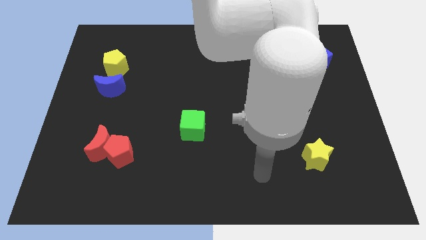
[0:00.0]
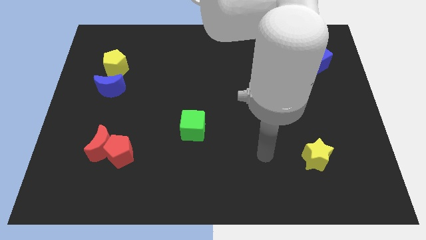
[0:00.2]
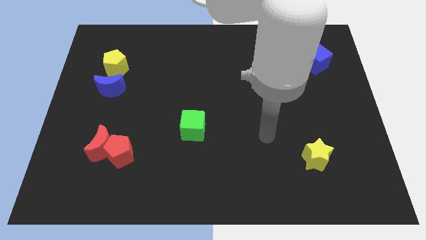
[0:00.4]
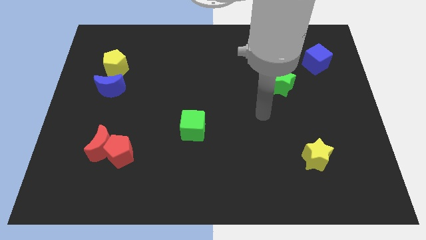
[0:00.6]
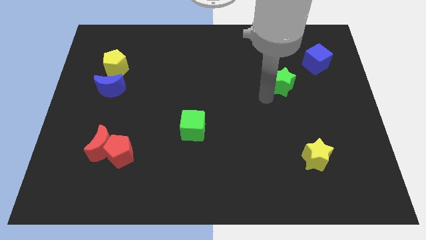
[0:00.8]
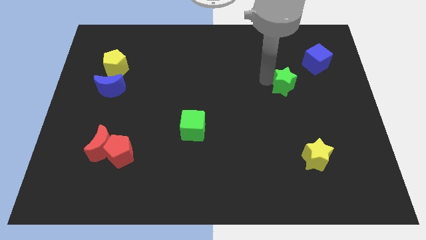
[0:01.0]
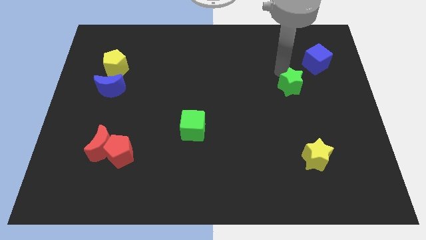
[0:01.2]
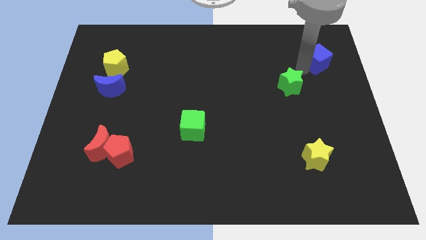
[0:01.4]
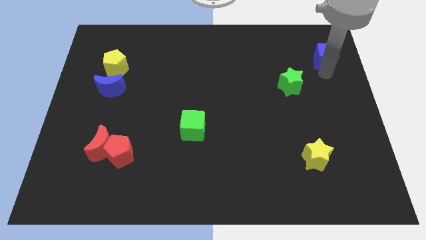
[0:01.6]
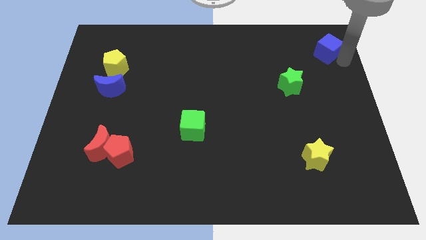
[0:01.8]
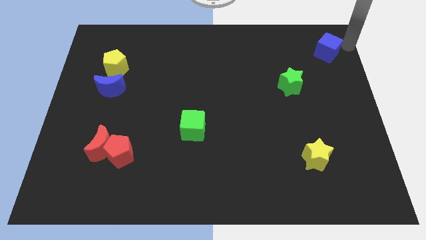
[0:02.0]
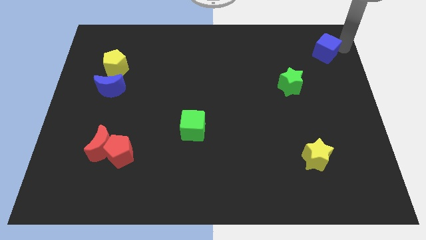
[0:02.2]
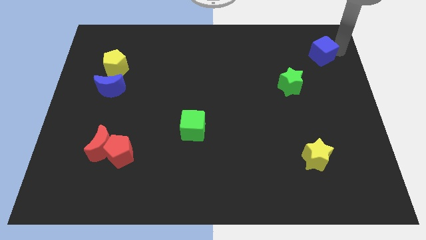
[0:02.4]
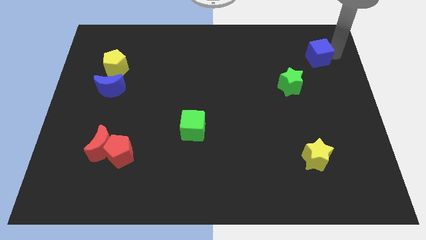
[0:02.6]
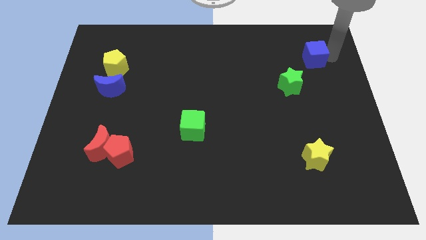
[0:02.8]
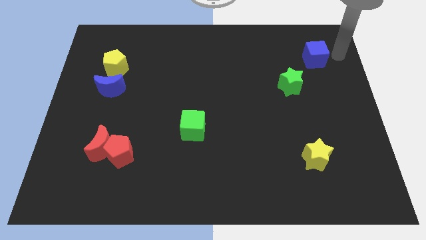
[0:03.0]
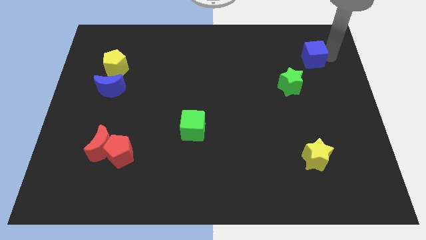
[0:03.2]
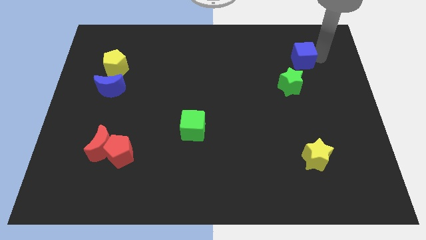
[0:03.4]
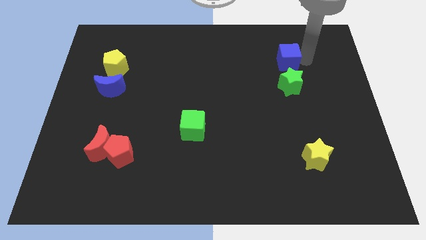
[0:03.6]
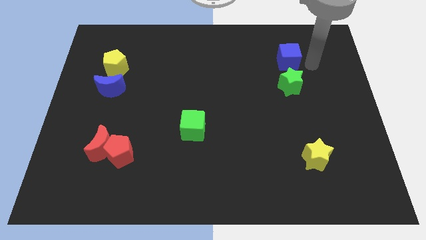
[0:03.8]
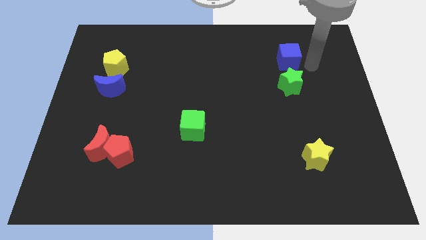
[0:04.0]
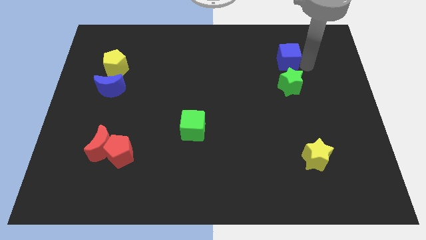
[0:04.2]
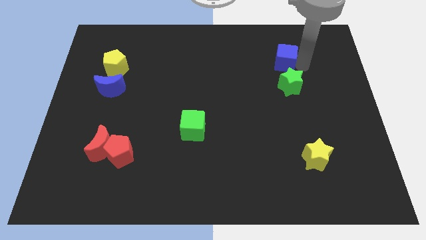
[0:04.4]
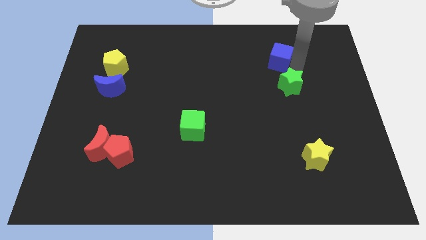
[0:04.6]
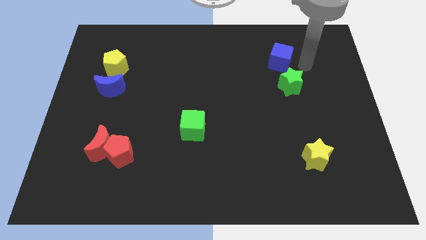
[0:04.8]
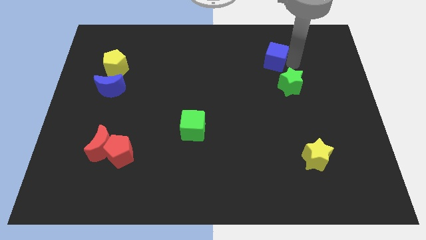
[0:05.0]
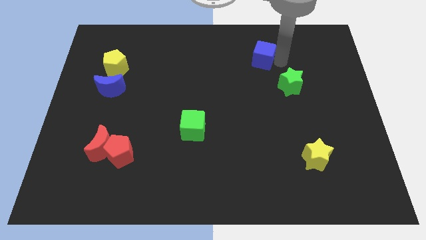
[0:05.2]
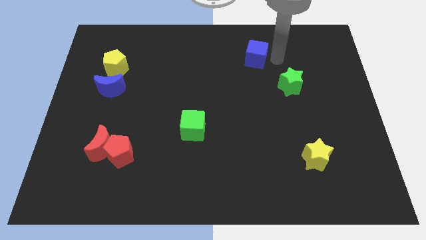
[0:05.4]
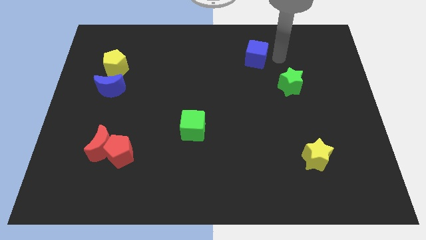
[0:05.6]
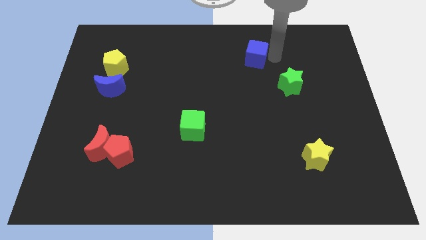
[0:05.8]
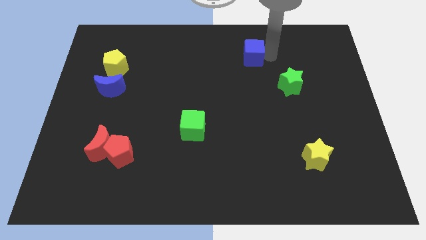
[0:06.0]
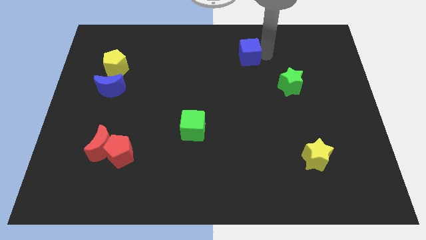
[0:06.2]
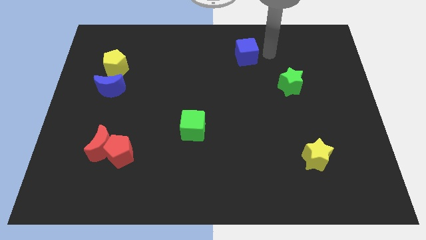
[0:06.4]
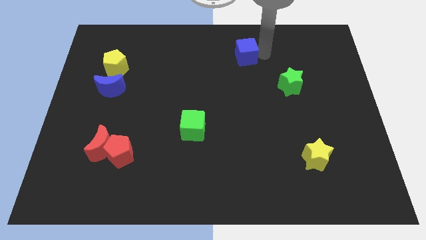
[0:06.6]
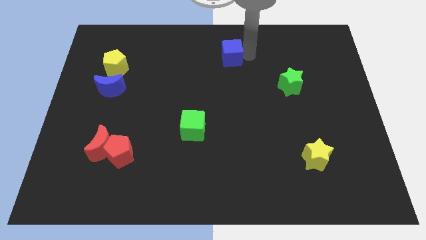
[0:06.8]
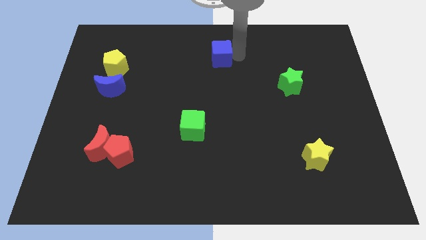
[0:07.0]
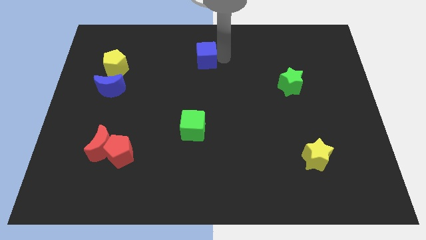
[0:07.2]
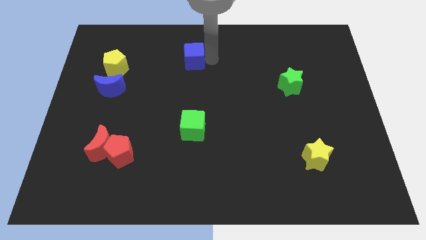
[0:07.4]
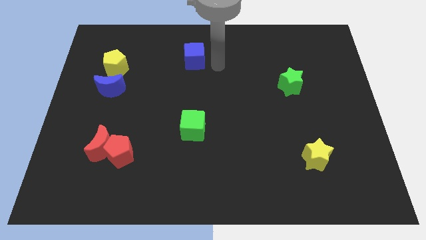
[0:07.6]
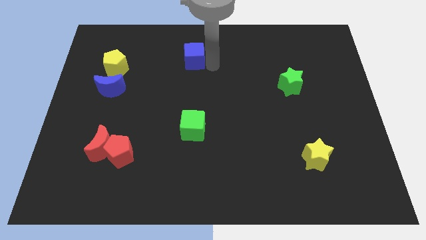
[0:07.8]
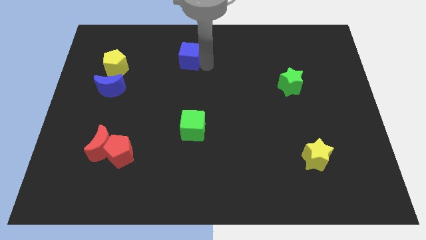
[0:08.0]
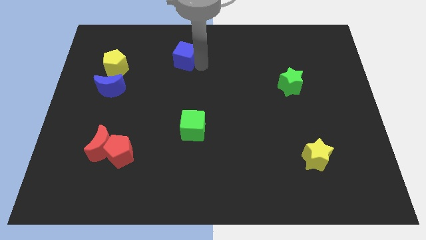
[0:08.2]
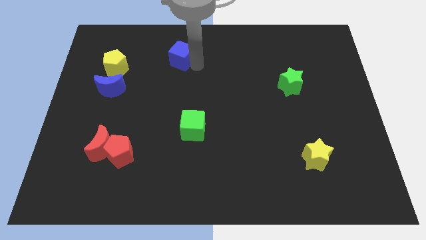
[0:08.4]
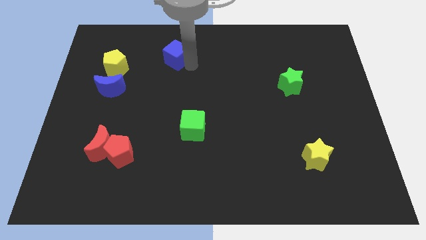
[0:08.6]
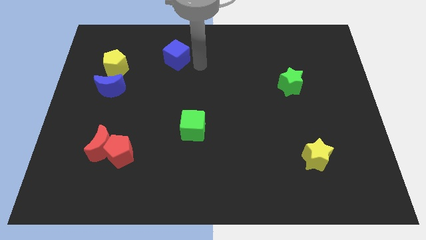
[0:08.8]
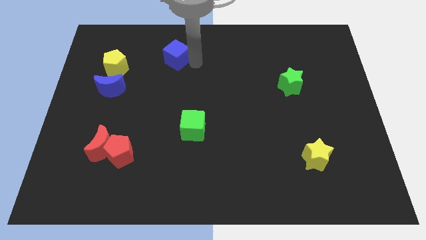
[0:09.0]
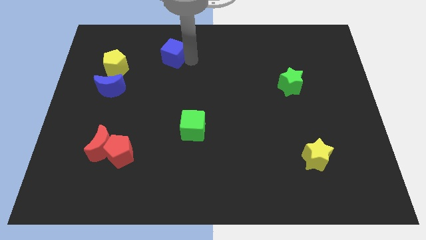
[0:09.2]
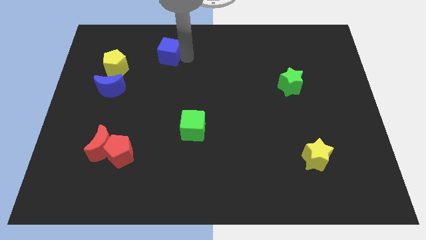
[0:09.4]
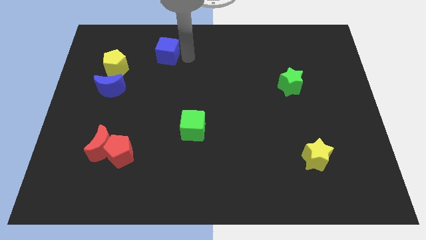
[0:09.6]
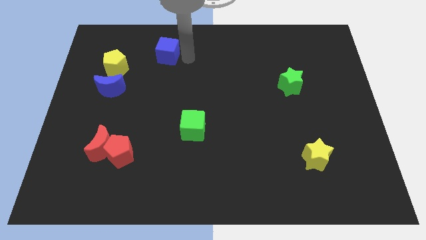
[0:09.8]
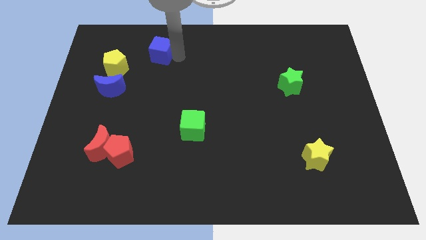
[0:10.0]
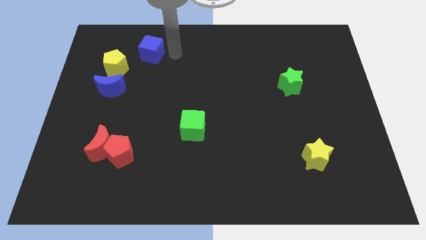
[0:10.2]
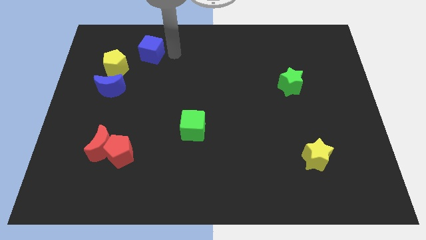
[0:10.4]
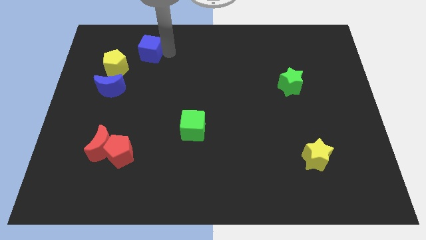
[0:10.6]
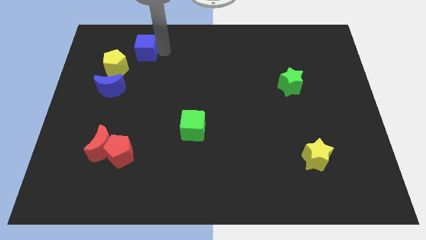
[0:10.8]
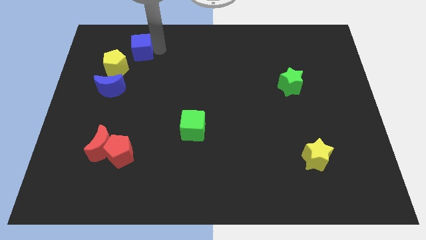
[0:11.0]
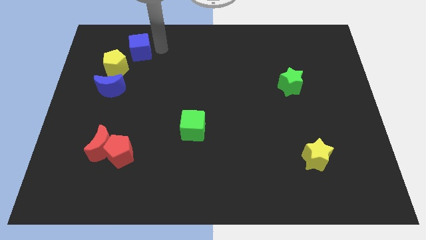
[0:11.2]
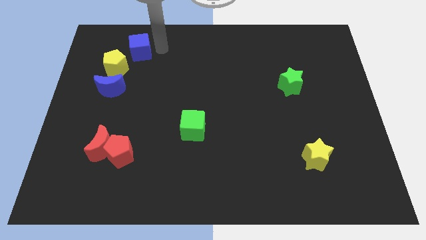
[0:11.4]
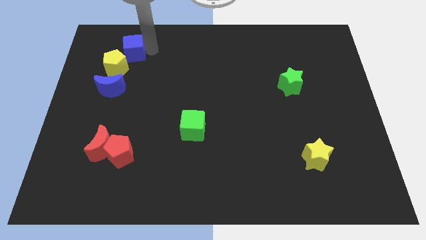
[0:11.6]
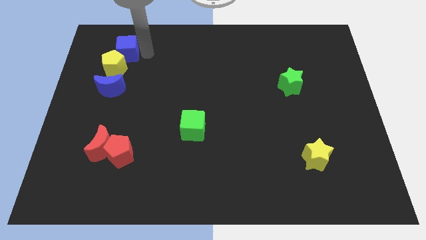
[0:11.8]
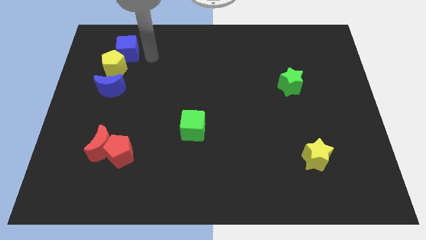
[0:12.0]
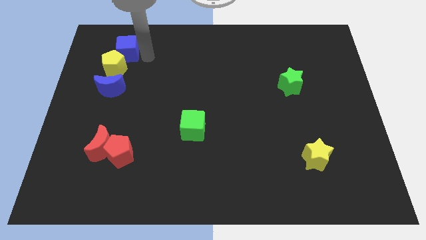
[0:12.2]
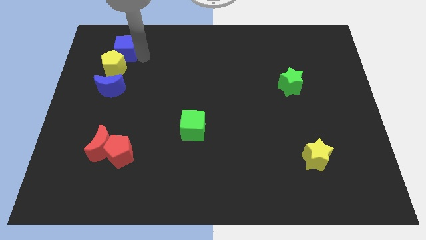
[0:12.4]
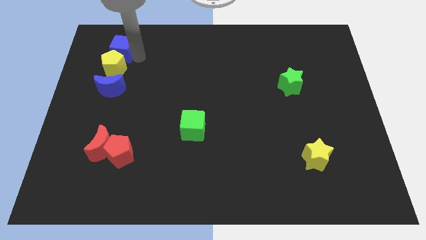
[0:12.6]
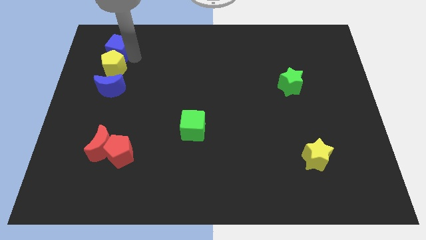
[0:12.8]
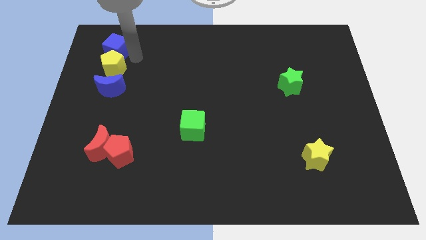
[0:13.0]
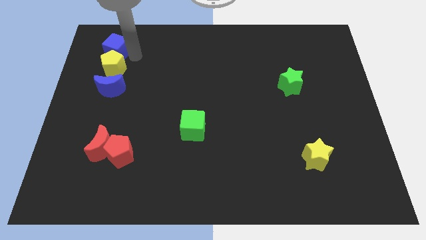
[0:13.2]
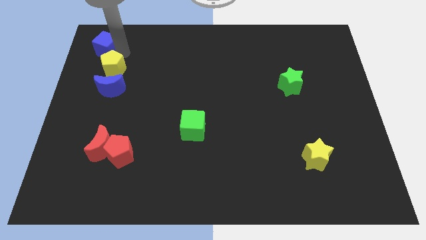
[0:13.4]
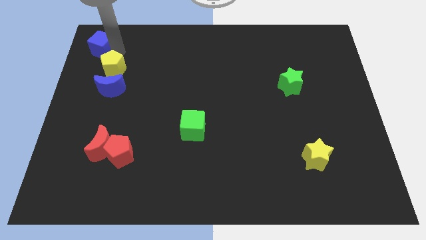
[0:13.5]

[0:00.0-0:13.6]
put the blue cube to the upper left corner
